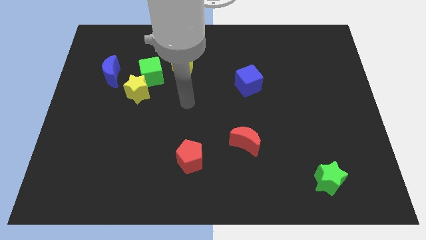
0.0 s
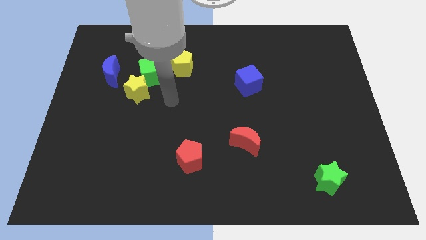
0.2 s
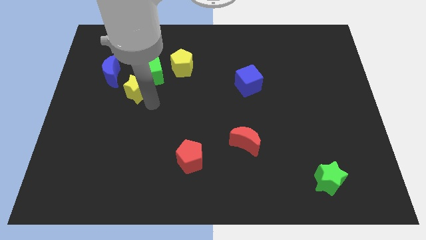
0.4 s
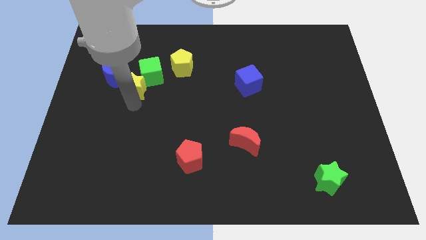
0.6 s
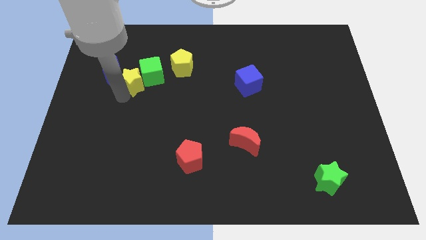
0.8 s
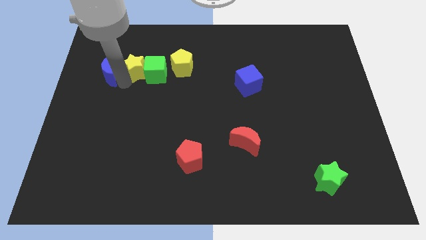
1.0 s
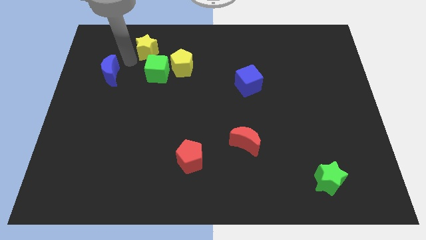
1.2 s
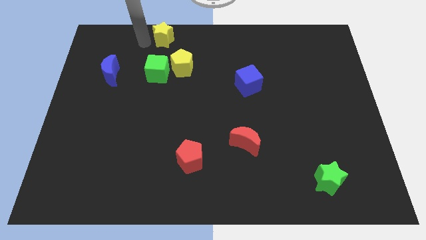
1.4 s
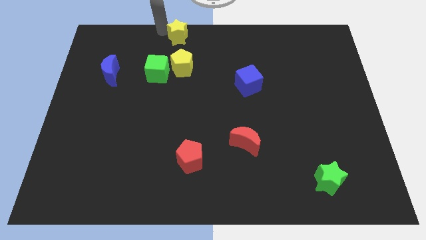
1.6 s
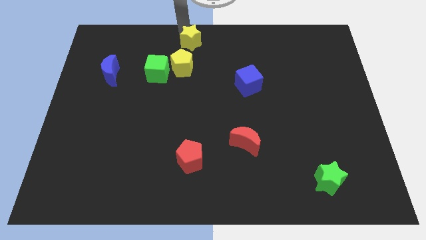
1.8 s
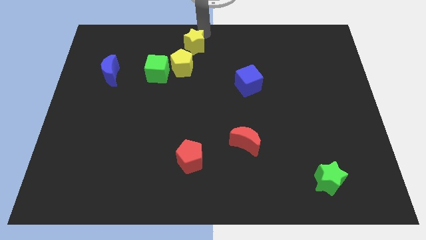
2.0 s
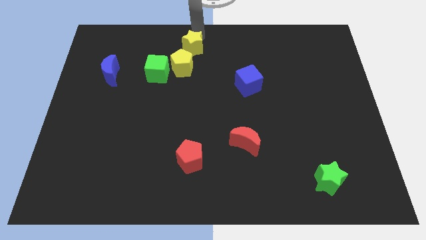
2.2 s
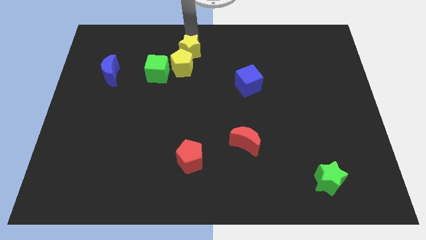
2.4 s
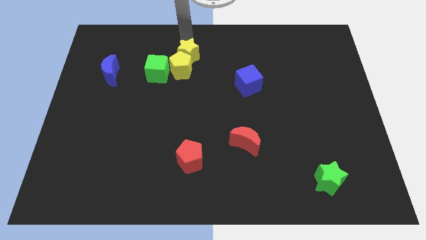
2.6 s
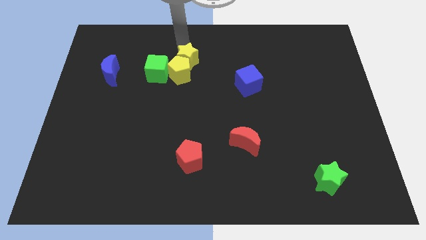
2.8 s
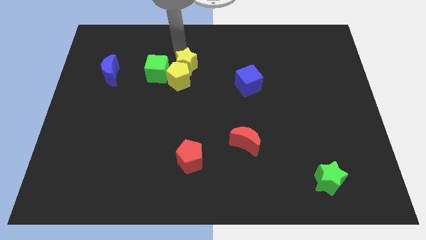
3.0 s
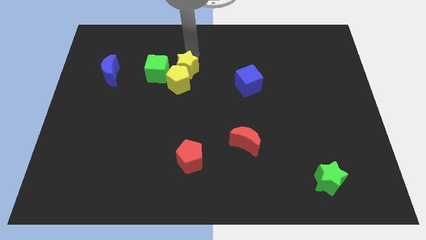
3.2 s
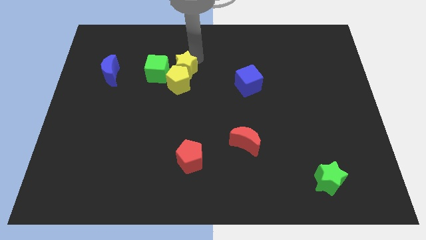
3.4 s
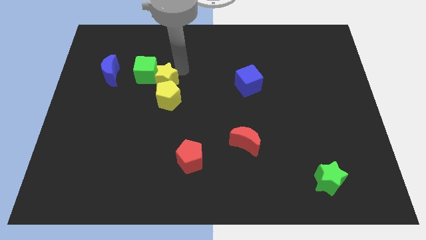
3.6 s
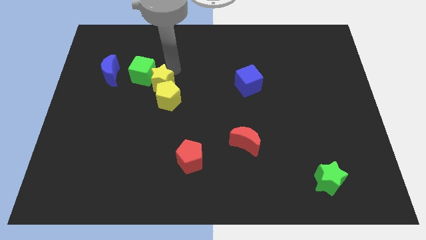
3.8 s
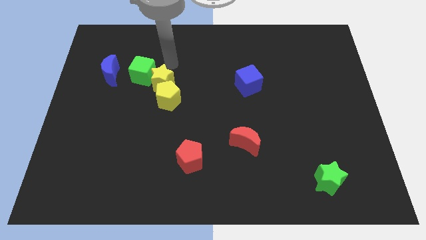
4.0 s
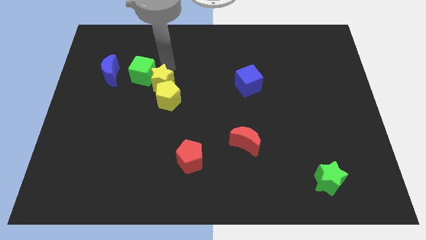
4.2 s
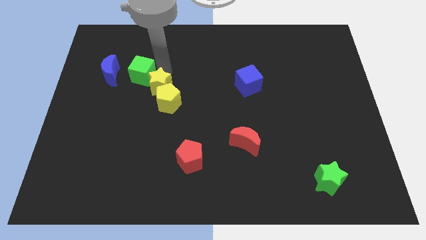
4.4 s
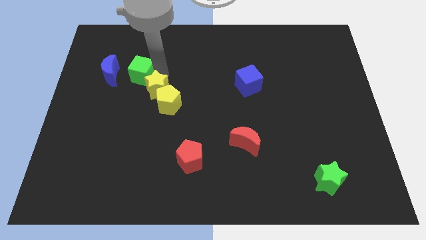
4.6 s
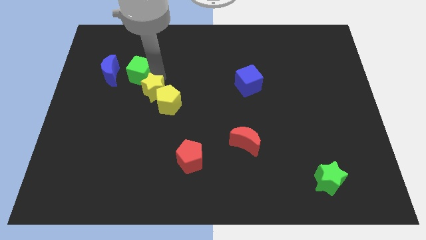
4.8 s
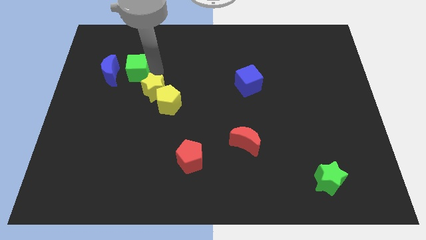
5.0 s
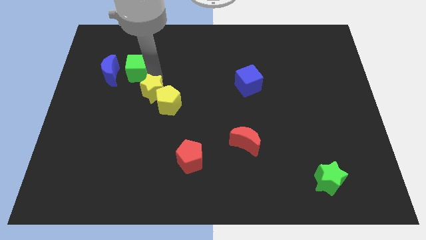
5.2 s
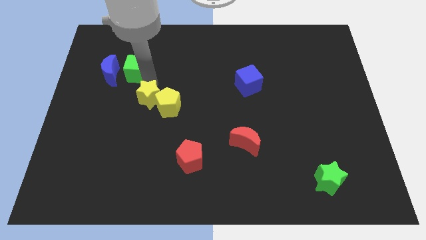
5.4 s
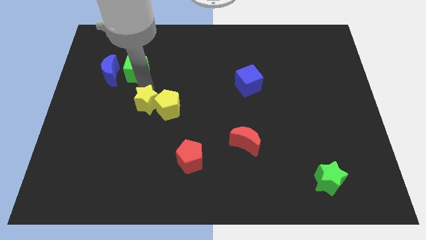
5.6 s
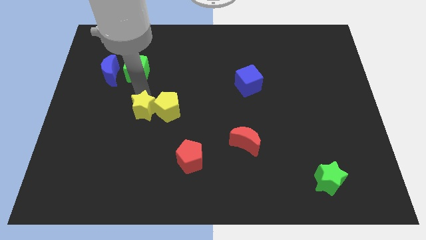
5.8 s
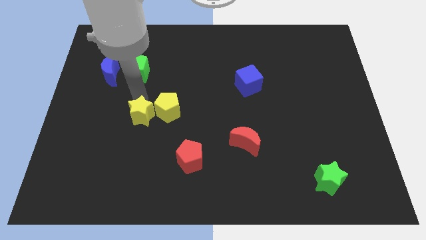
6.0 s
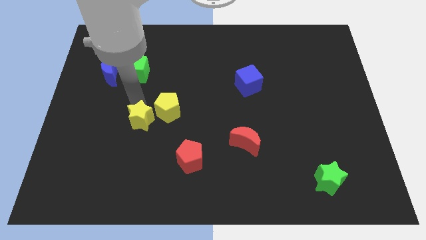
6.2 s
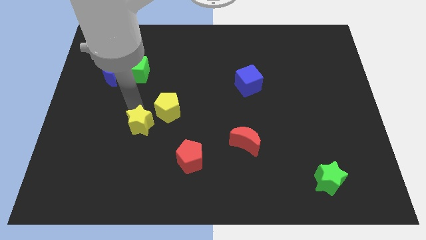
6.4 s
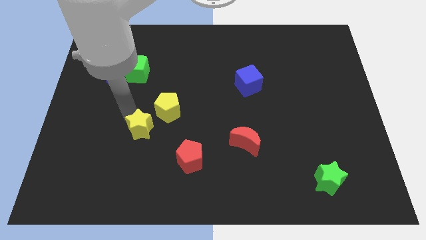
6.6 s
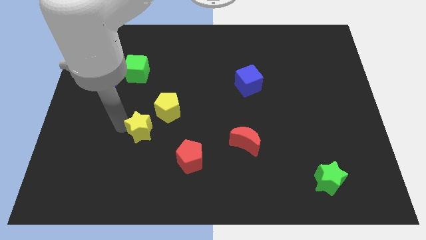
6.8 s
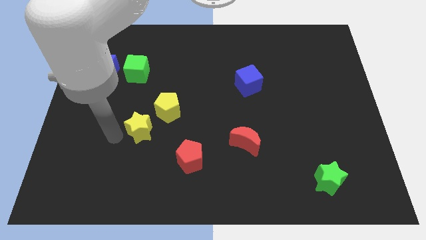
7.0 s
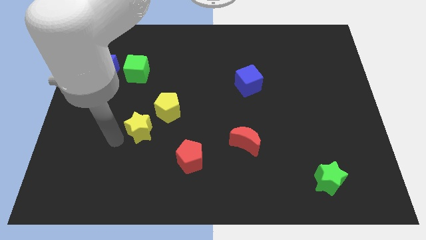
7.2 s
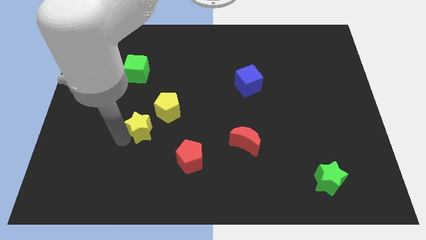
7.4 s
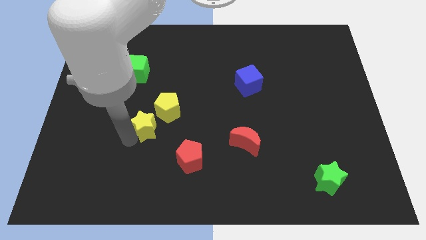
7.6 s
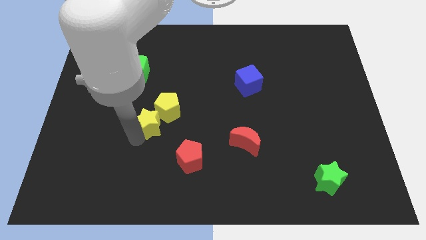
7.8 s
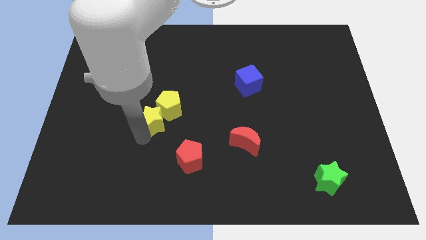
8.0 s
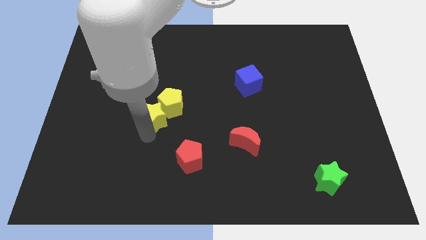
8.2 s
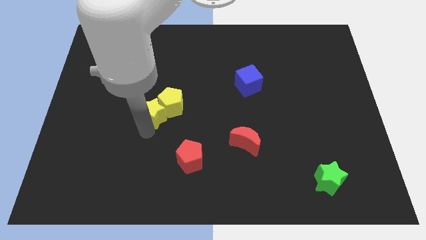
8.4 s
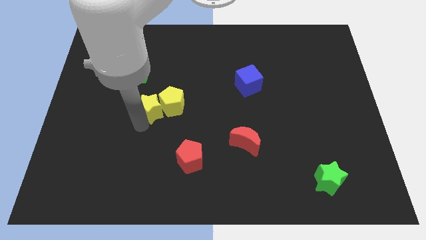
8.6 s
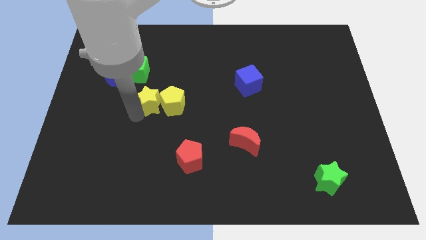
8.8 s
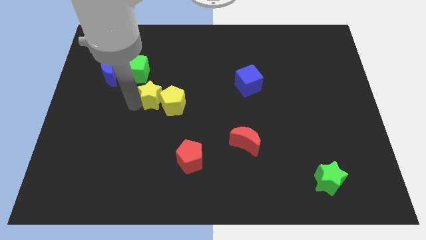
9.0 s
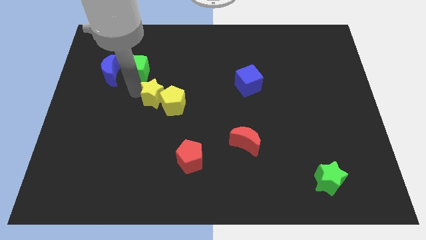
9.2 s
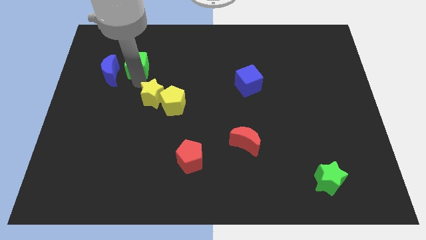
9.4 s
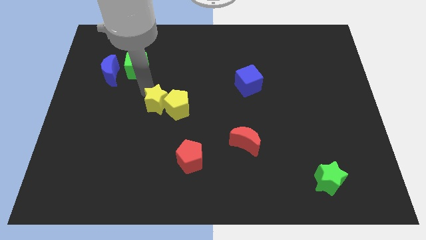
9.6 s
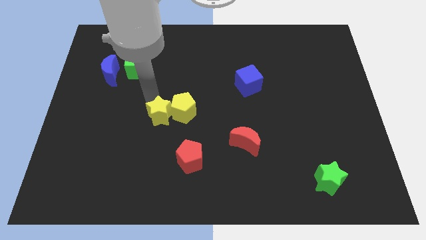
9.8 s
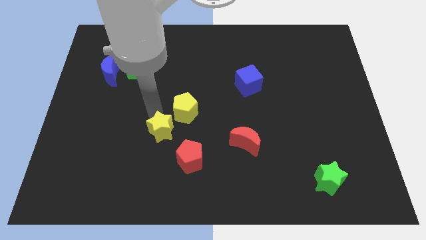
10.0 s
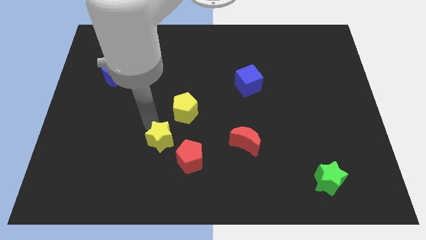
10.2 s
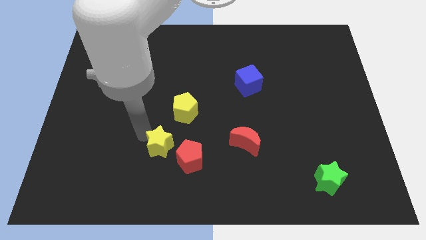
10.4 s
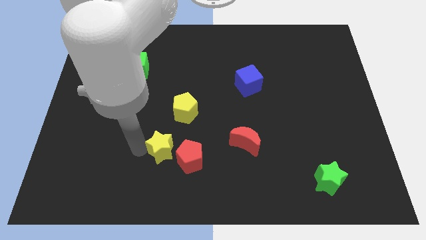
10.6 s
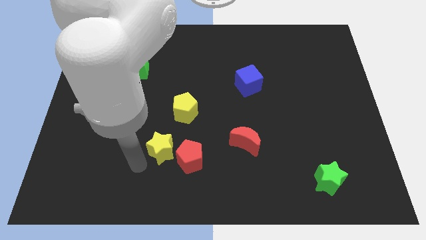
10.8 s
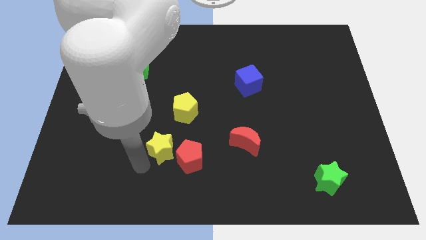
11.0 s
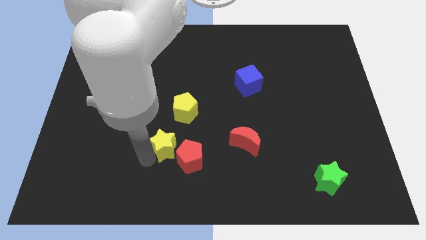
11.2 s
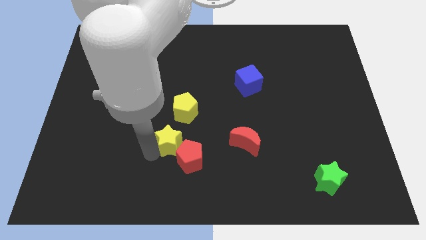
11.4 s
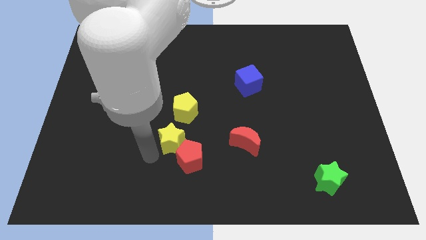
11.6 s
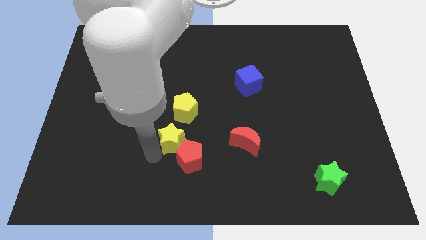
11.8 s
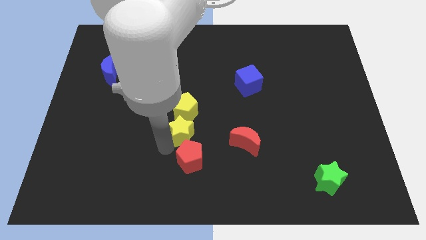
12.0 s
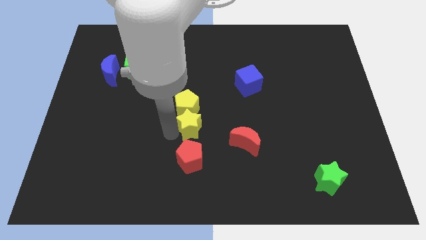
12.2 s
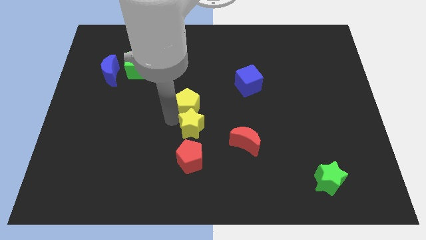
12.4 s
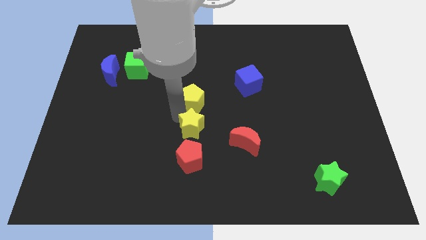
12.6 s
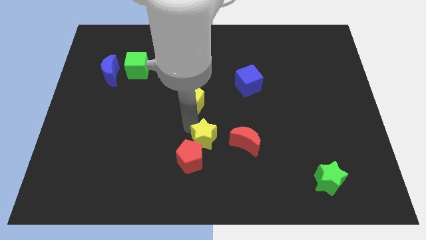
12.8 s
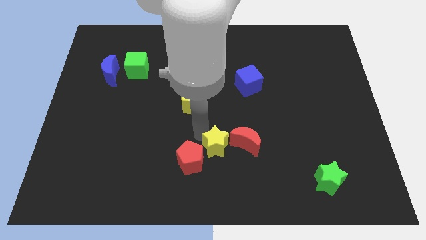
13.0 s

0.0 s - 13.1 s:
move the yellow star to the bottom left side of the red moon
